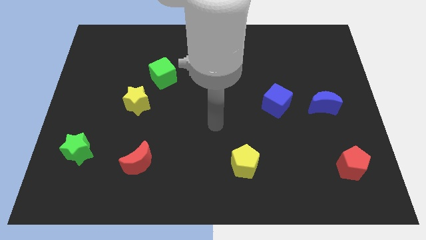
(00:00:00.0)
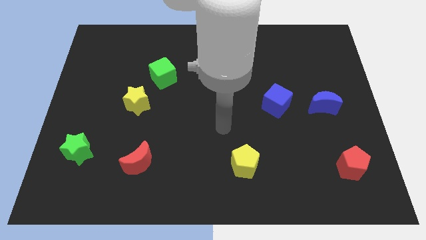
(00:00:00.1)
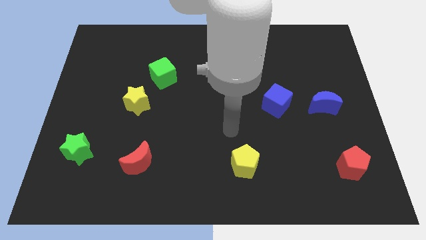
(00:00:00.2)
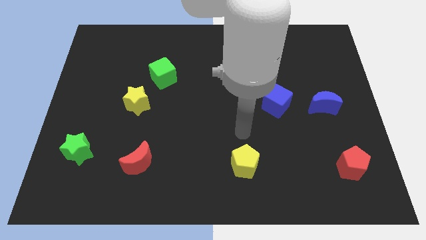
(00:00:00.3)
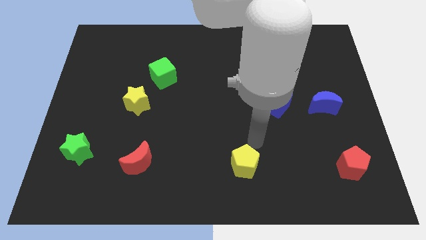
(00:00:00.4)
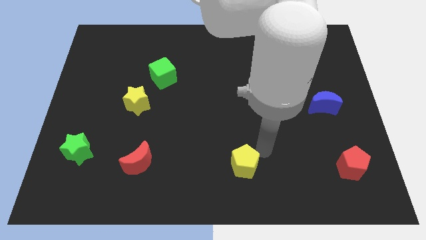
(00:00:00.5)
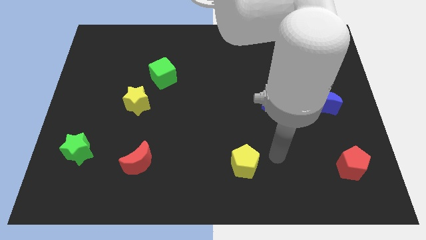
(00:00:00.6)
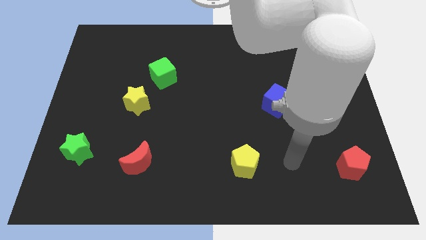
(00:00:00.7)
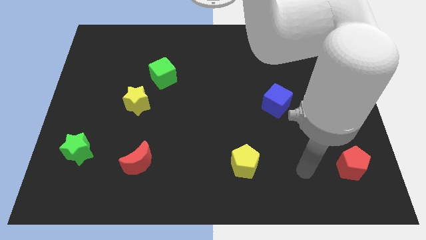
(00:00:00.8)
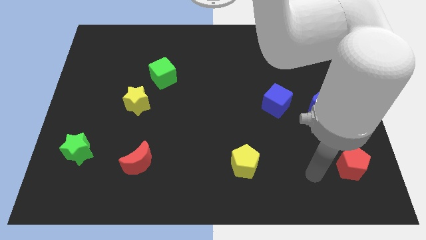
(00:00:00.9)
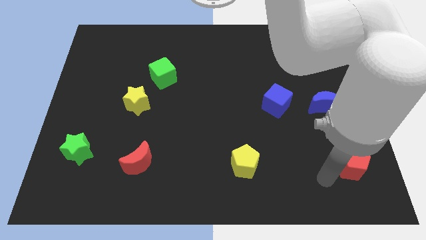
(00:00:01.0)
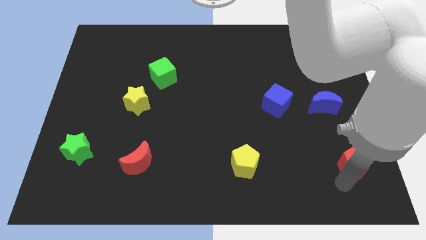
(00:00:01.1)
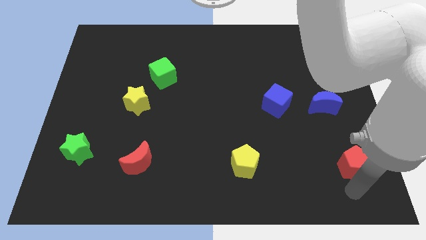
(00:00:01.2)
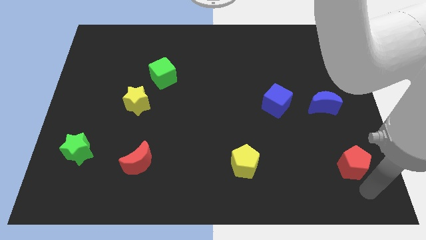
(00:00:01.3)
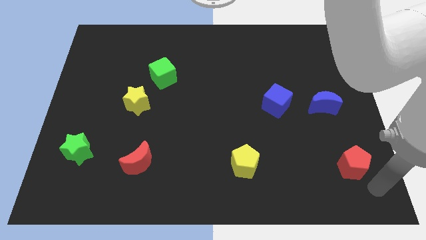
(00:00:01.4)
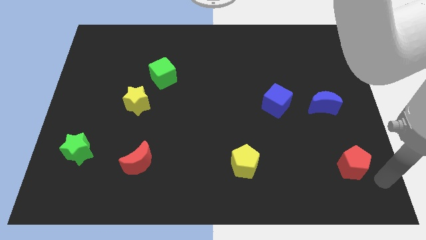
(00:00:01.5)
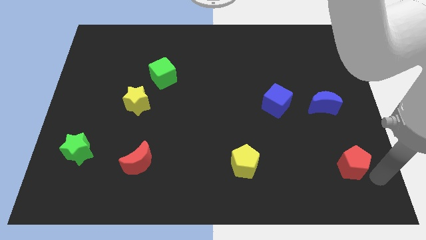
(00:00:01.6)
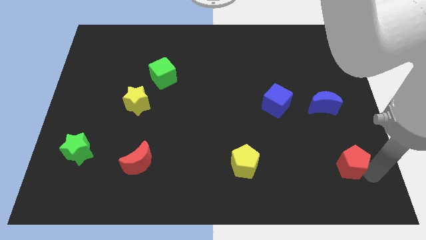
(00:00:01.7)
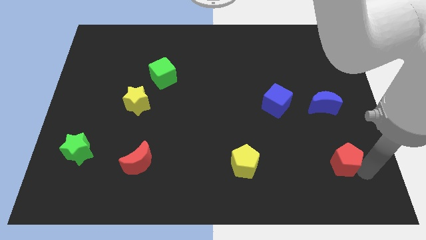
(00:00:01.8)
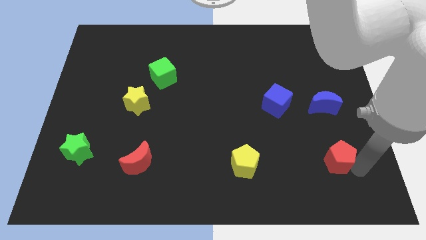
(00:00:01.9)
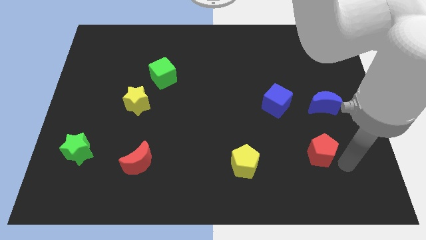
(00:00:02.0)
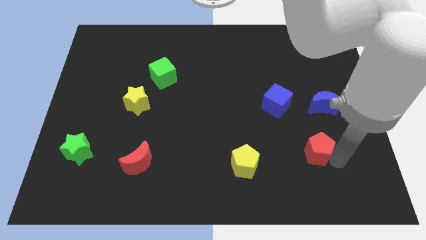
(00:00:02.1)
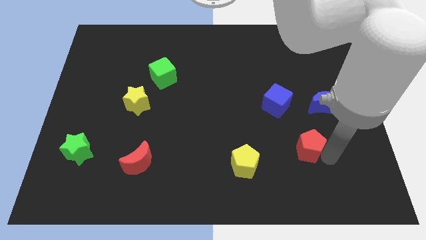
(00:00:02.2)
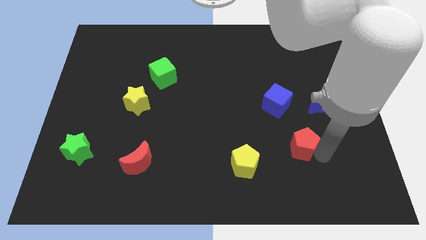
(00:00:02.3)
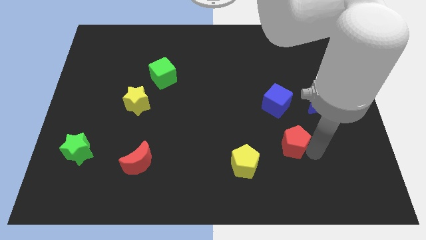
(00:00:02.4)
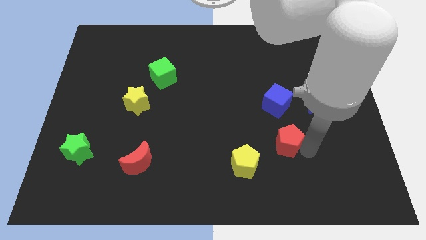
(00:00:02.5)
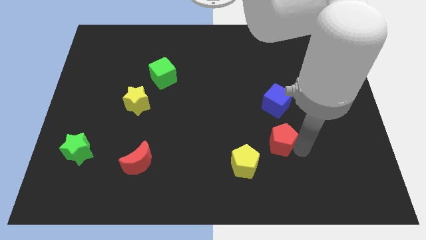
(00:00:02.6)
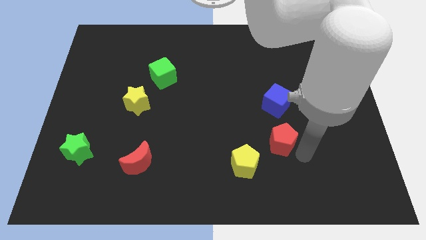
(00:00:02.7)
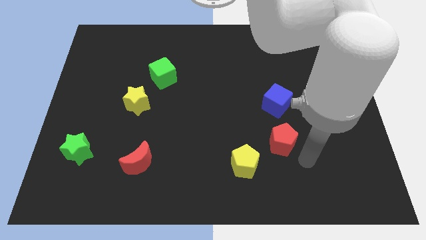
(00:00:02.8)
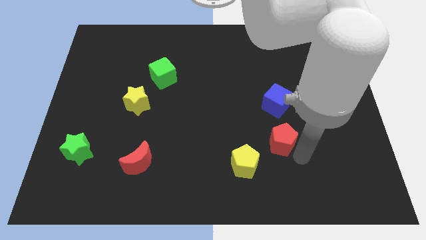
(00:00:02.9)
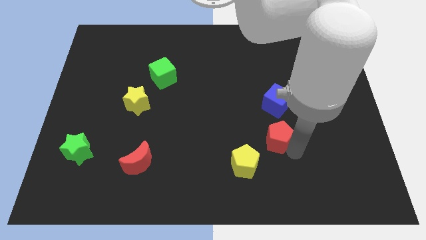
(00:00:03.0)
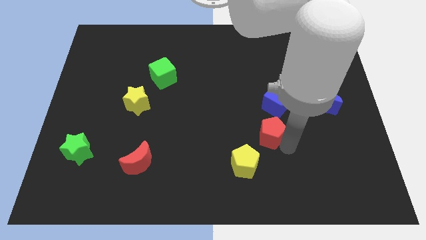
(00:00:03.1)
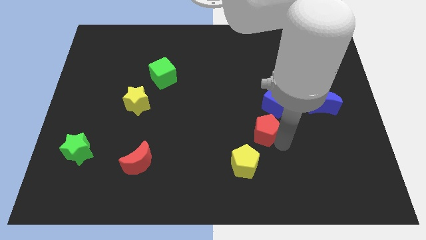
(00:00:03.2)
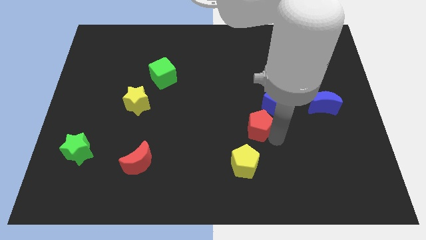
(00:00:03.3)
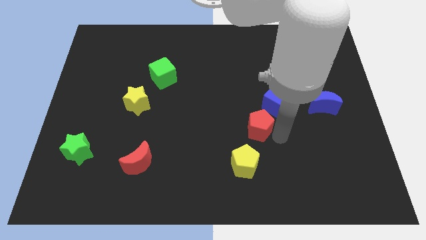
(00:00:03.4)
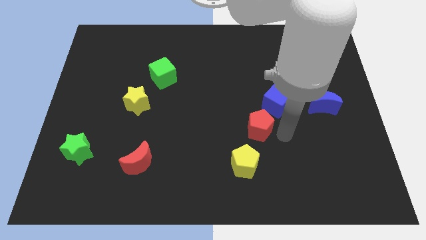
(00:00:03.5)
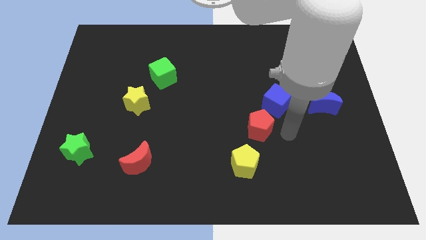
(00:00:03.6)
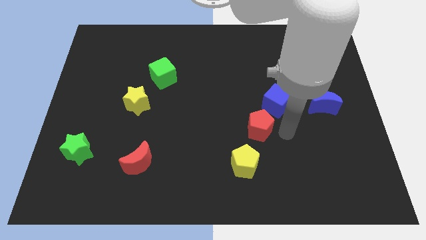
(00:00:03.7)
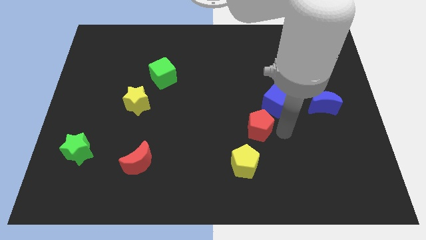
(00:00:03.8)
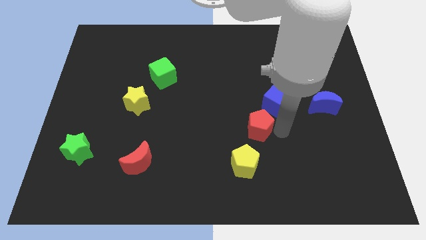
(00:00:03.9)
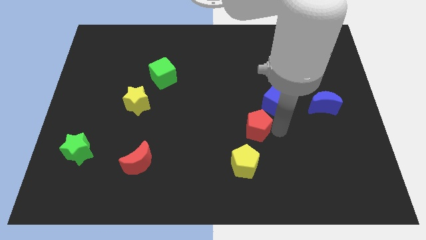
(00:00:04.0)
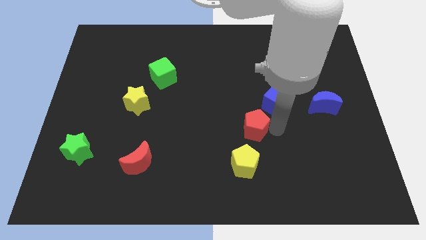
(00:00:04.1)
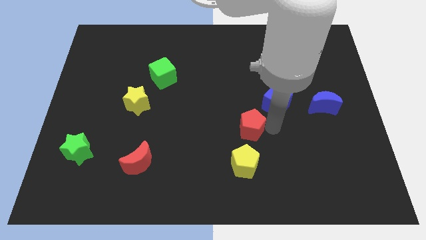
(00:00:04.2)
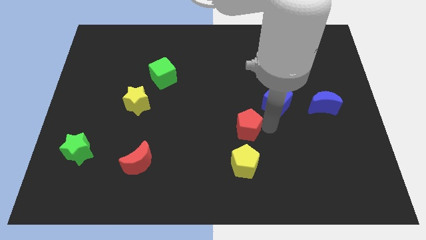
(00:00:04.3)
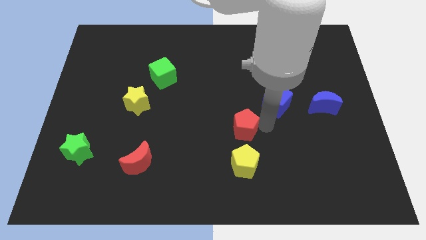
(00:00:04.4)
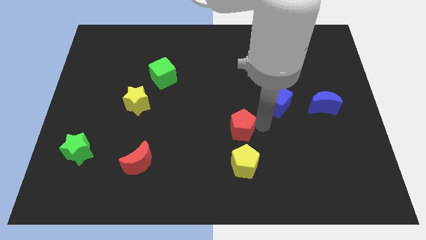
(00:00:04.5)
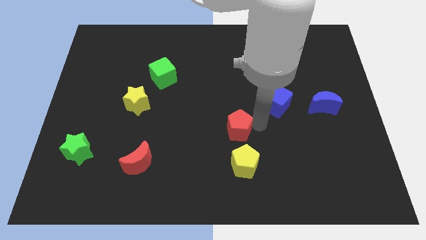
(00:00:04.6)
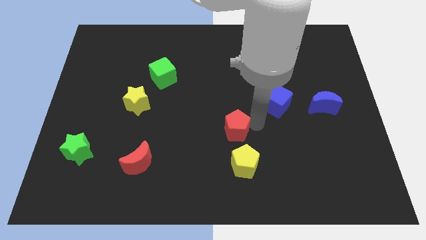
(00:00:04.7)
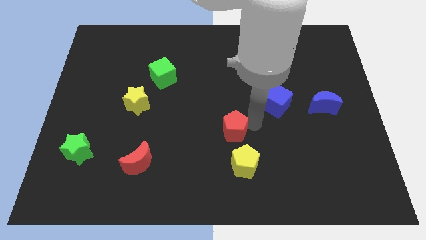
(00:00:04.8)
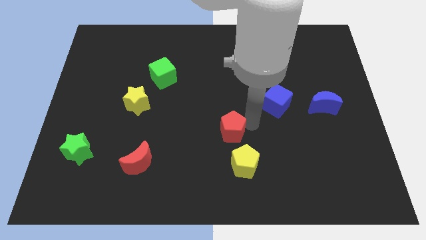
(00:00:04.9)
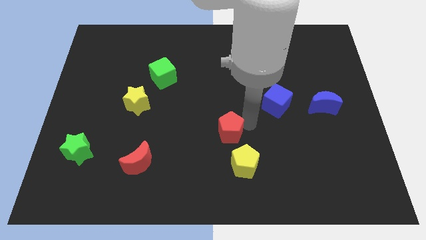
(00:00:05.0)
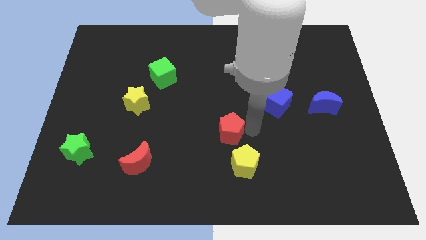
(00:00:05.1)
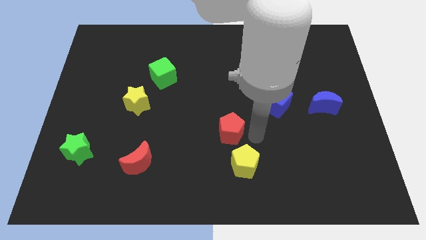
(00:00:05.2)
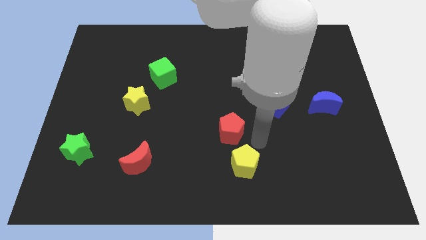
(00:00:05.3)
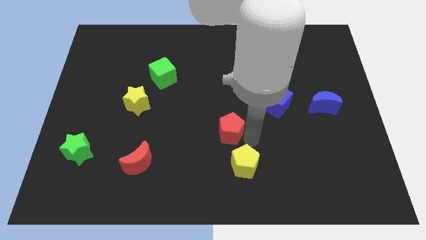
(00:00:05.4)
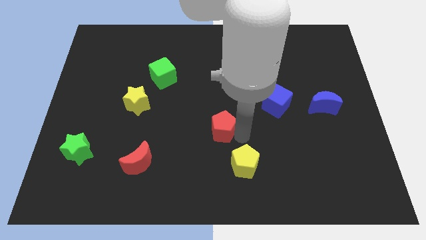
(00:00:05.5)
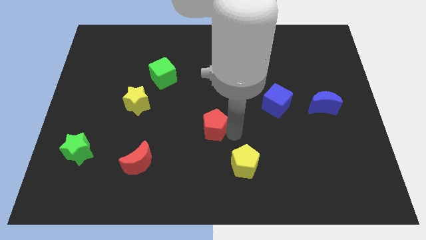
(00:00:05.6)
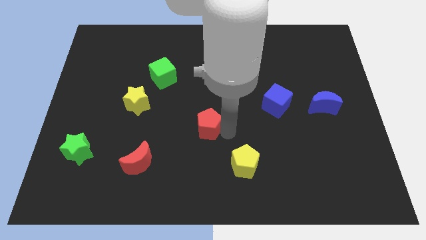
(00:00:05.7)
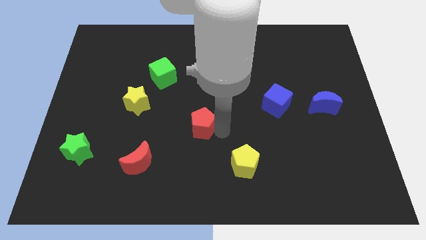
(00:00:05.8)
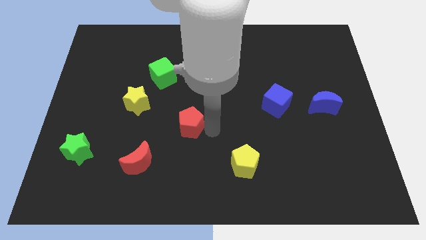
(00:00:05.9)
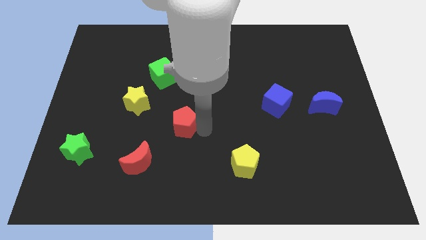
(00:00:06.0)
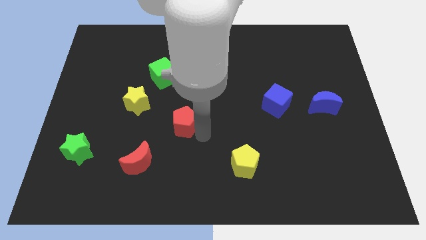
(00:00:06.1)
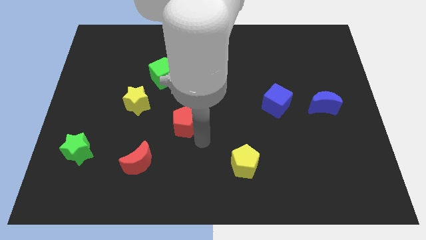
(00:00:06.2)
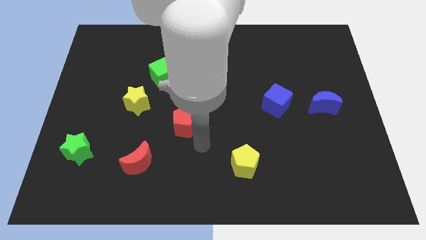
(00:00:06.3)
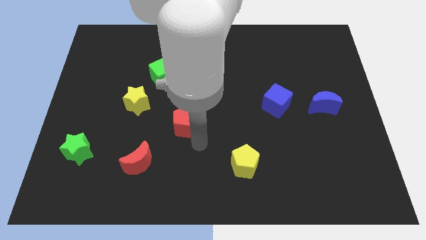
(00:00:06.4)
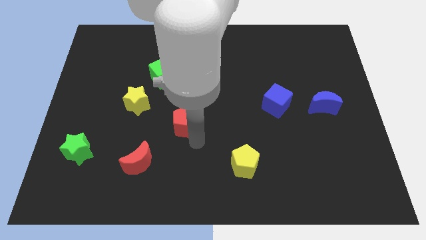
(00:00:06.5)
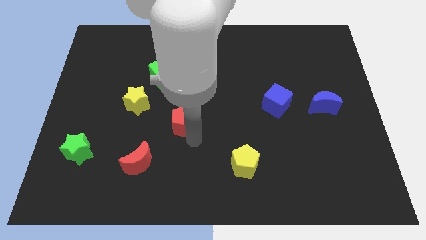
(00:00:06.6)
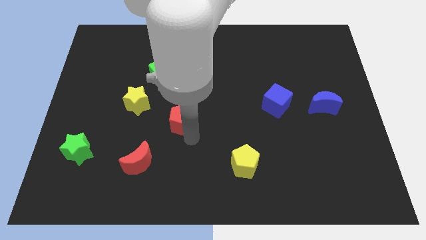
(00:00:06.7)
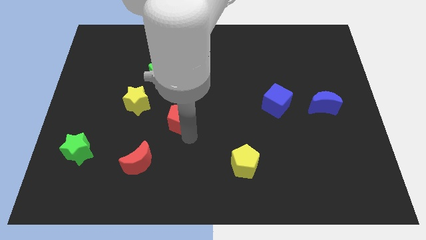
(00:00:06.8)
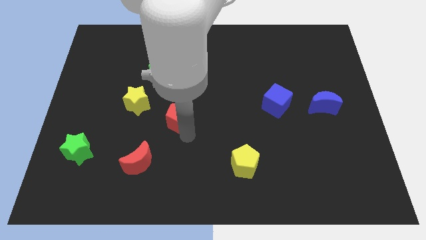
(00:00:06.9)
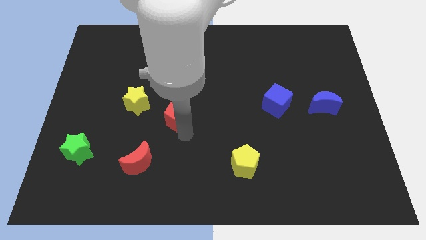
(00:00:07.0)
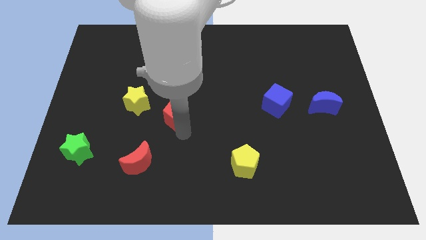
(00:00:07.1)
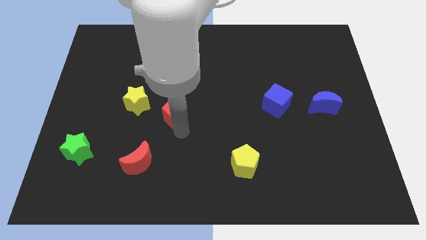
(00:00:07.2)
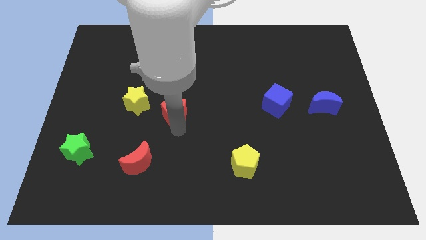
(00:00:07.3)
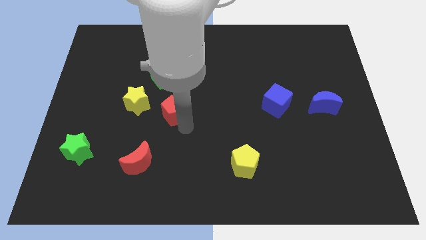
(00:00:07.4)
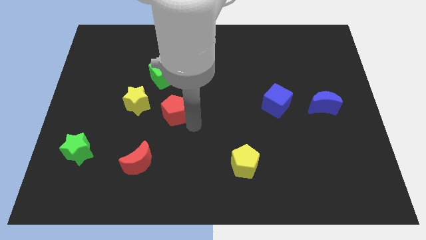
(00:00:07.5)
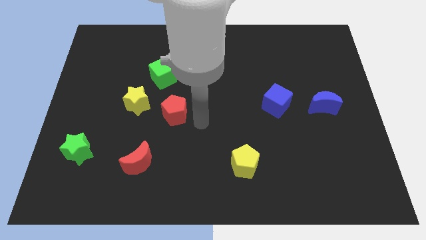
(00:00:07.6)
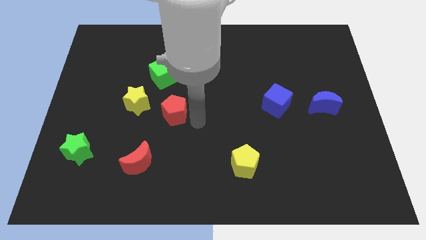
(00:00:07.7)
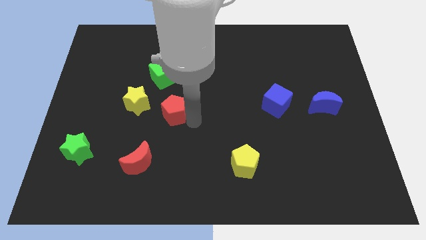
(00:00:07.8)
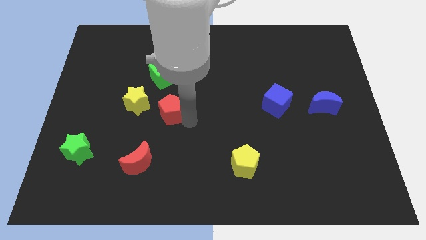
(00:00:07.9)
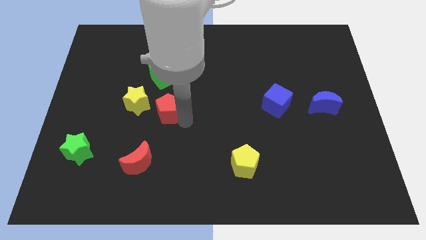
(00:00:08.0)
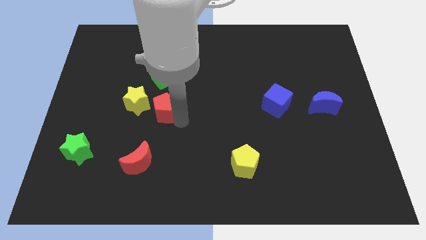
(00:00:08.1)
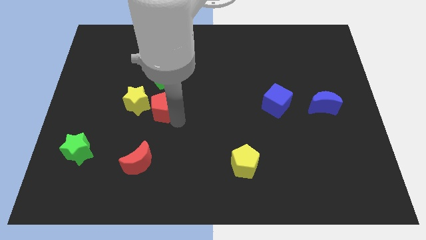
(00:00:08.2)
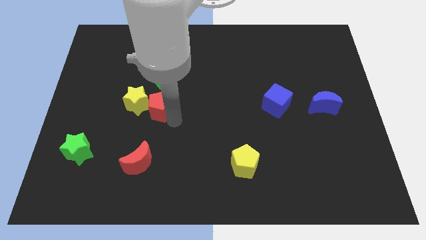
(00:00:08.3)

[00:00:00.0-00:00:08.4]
slide the red pentagon towards the yellow star
